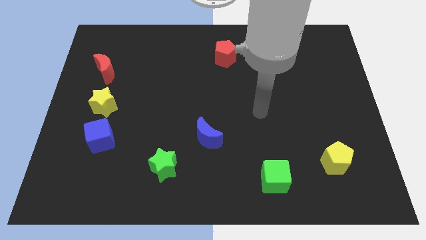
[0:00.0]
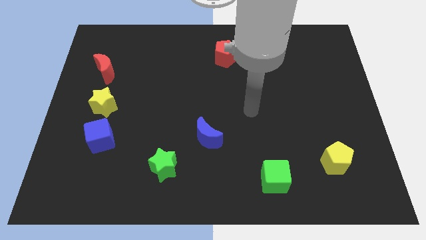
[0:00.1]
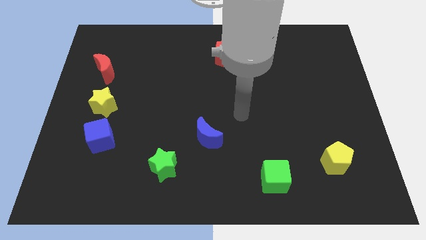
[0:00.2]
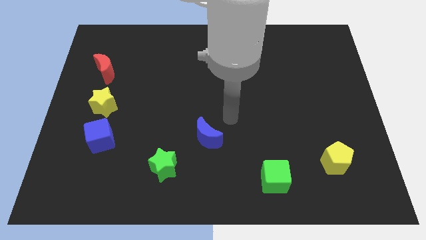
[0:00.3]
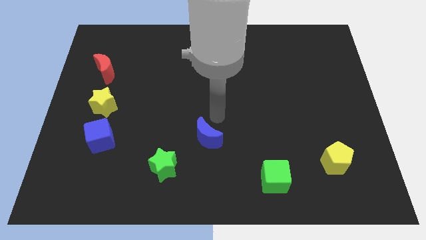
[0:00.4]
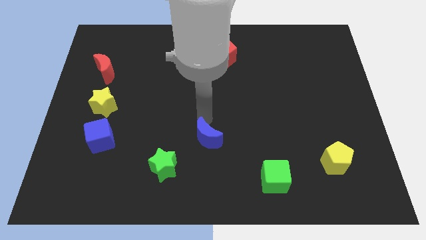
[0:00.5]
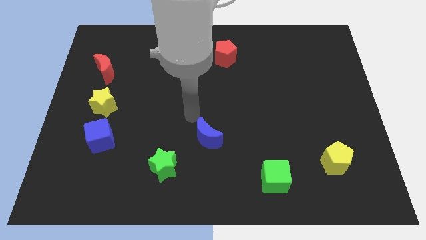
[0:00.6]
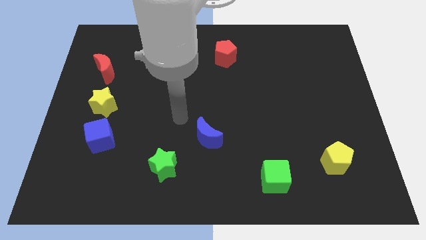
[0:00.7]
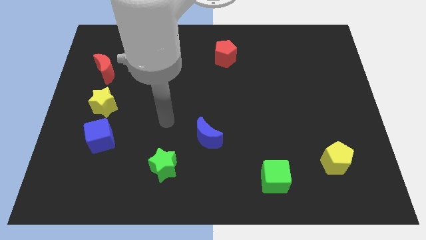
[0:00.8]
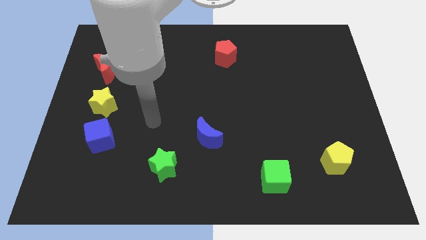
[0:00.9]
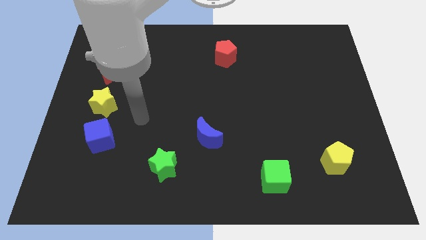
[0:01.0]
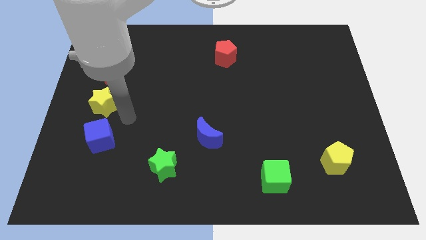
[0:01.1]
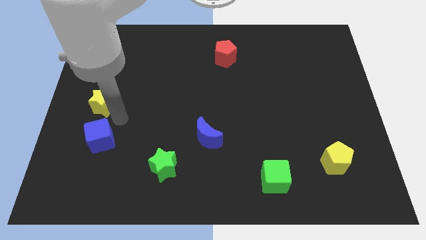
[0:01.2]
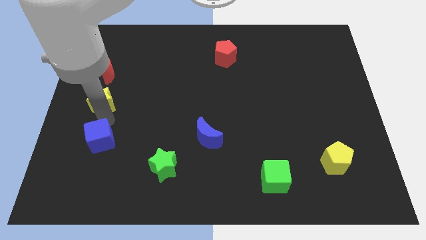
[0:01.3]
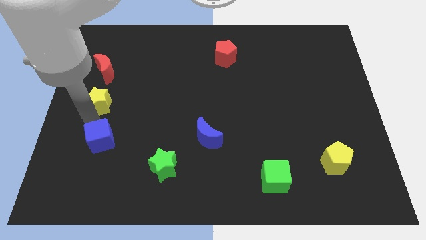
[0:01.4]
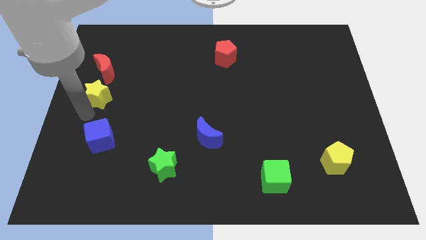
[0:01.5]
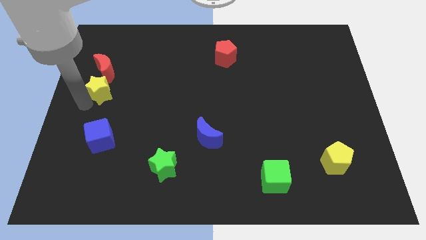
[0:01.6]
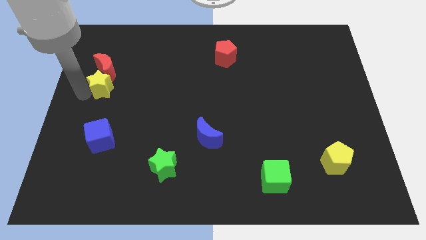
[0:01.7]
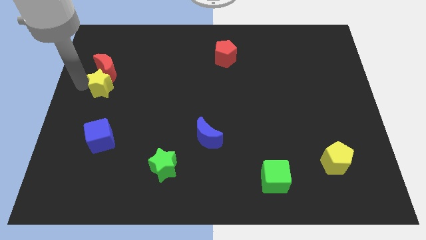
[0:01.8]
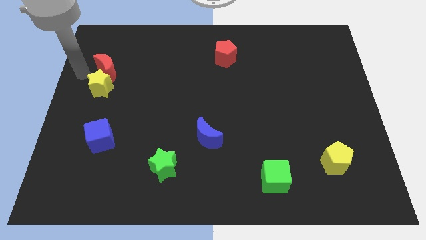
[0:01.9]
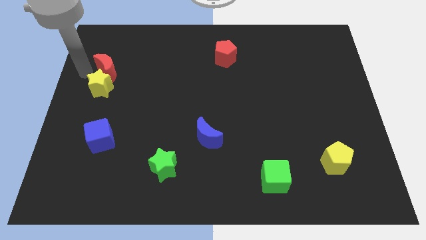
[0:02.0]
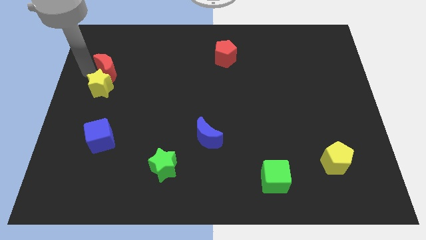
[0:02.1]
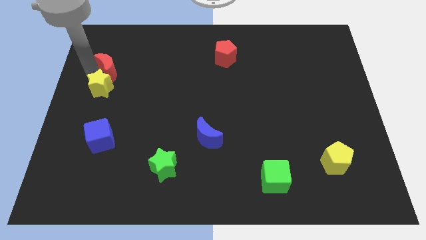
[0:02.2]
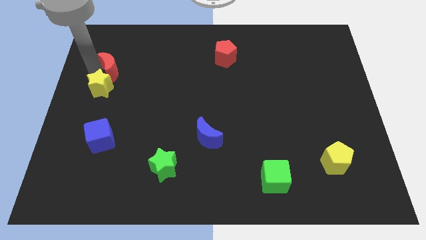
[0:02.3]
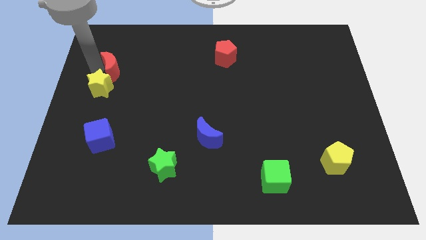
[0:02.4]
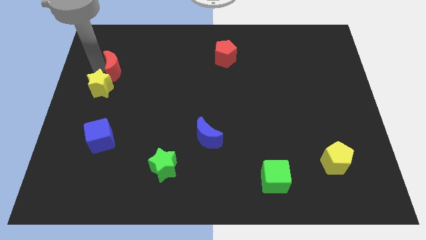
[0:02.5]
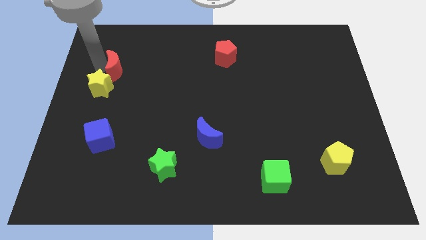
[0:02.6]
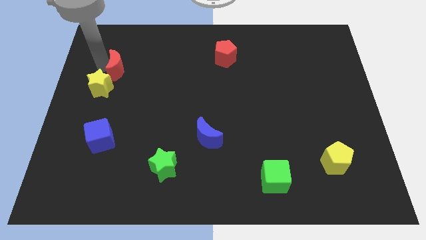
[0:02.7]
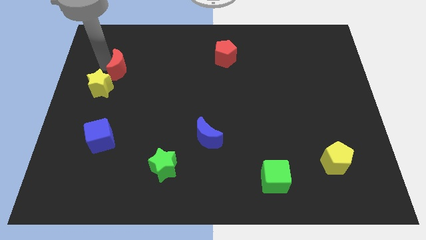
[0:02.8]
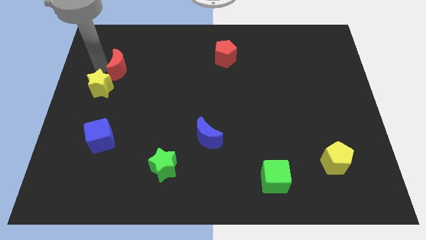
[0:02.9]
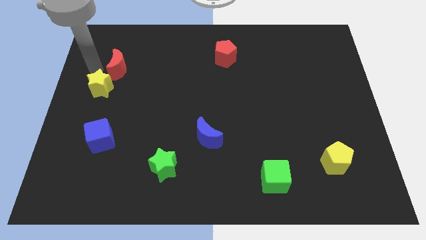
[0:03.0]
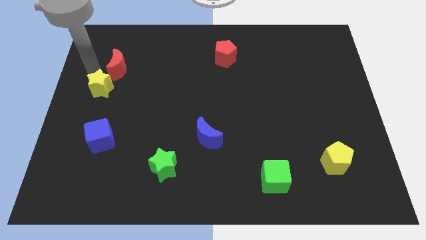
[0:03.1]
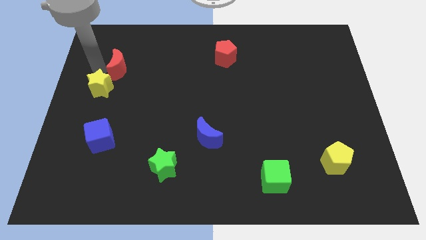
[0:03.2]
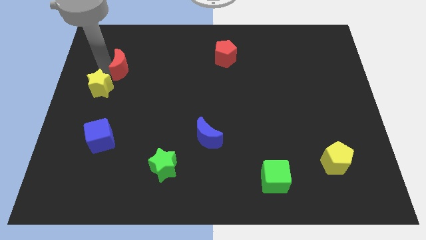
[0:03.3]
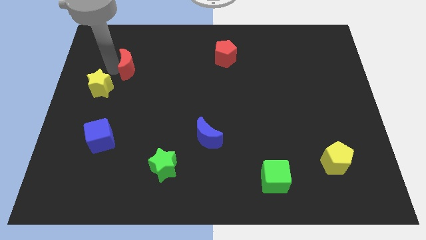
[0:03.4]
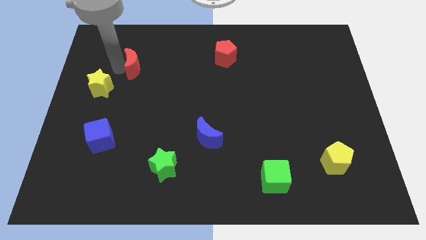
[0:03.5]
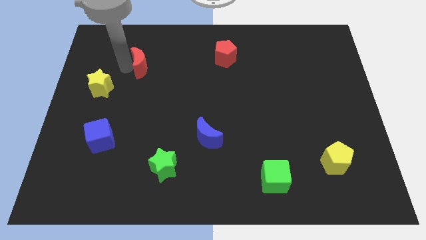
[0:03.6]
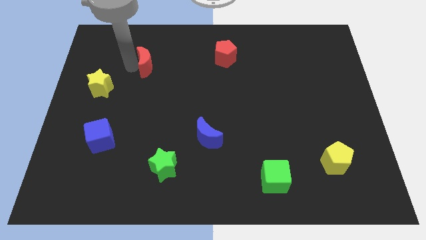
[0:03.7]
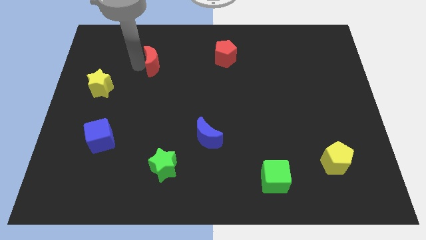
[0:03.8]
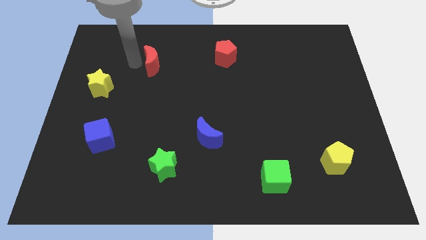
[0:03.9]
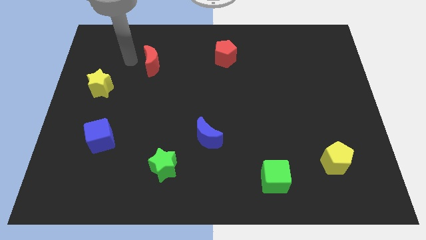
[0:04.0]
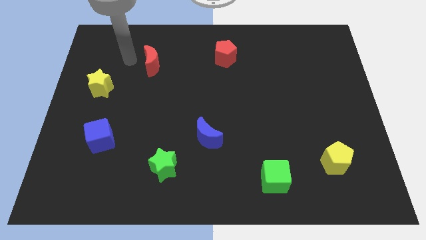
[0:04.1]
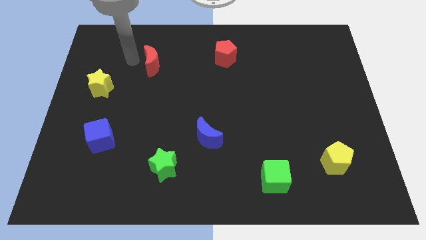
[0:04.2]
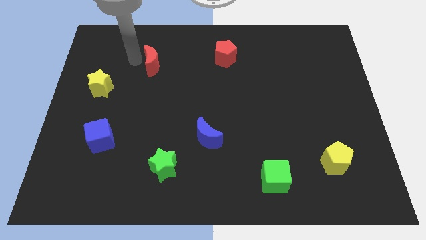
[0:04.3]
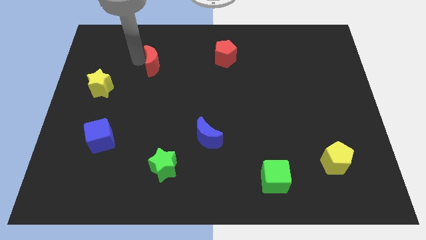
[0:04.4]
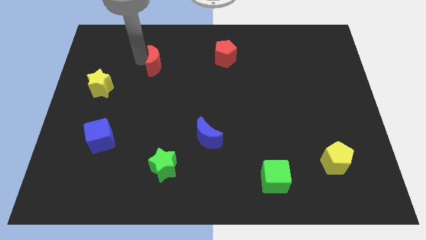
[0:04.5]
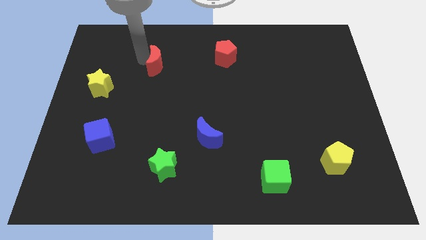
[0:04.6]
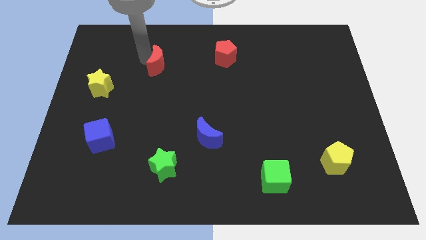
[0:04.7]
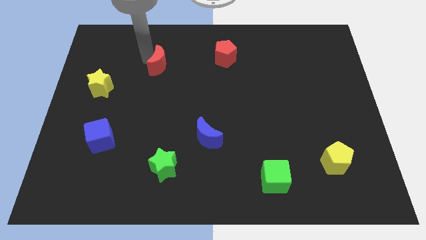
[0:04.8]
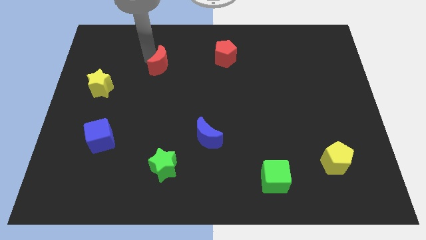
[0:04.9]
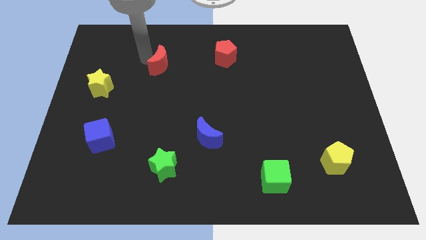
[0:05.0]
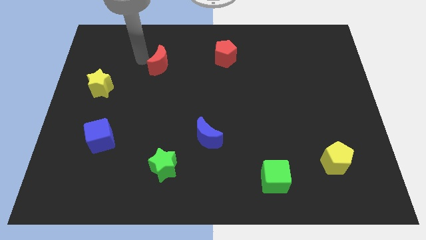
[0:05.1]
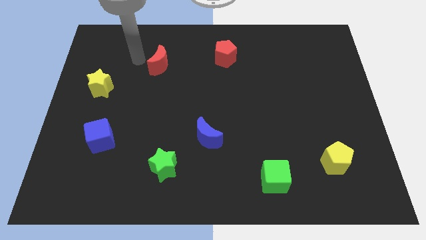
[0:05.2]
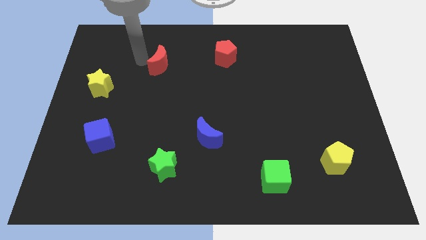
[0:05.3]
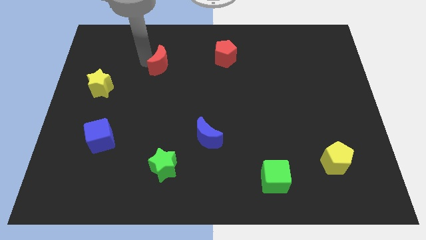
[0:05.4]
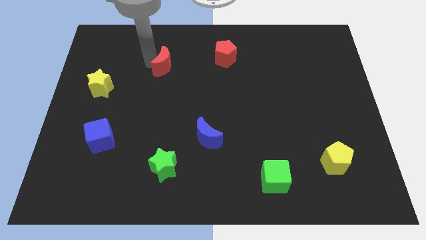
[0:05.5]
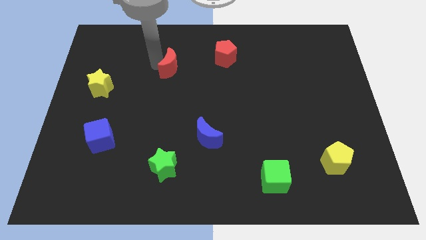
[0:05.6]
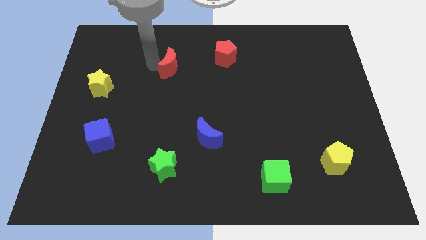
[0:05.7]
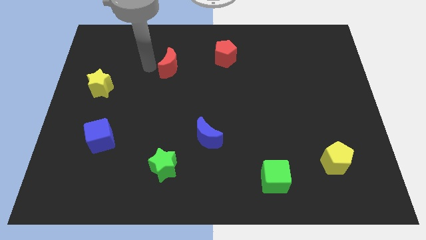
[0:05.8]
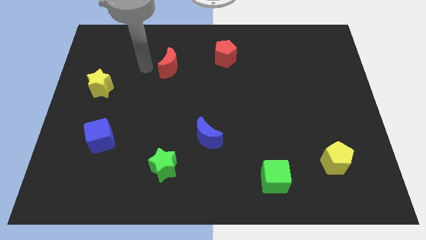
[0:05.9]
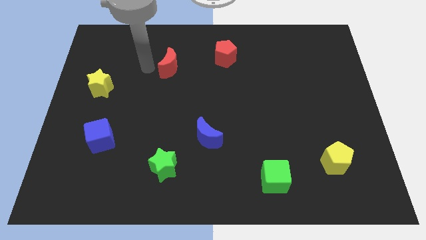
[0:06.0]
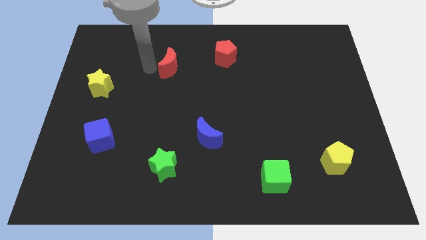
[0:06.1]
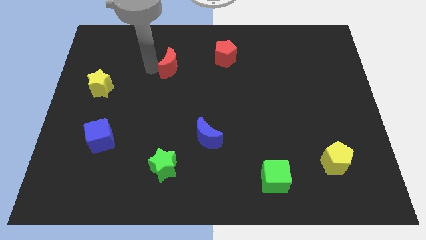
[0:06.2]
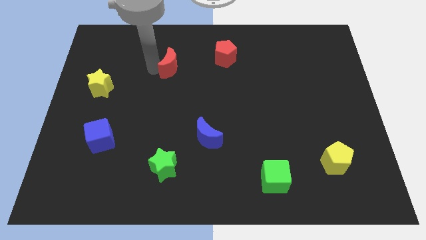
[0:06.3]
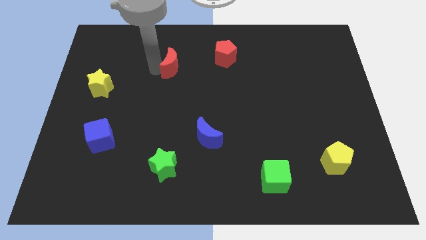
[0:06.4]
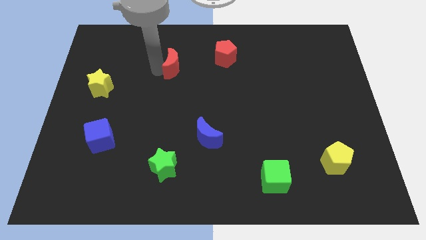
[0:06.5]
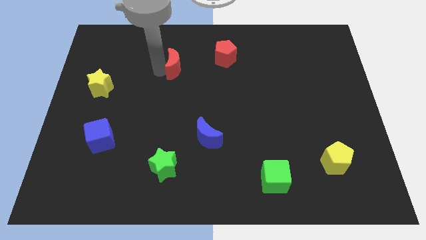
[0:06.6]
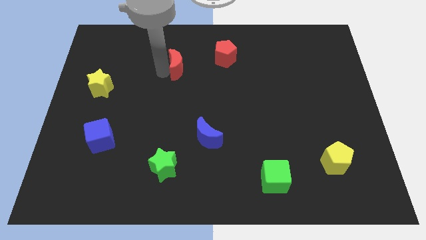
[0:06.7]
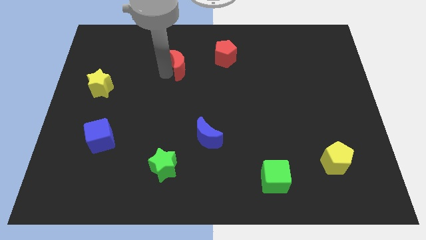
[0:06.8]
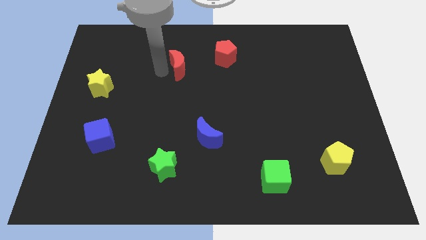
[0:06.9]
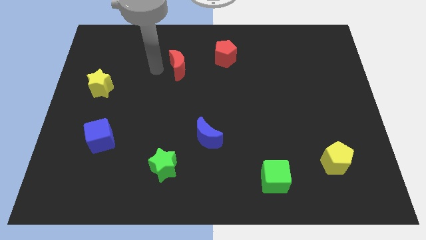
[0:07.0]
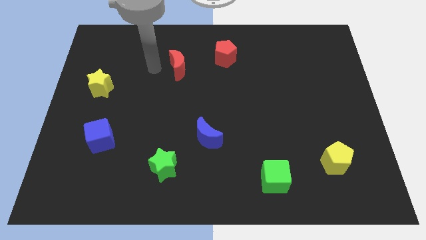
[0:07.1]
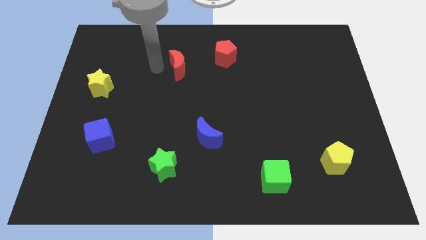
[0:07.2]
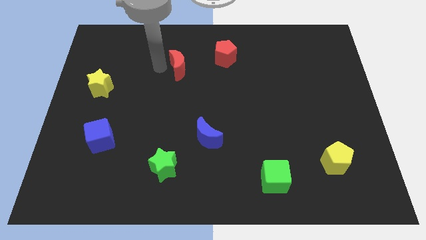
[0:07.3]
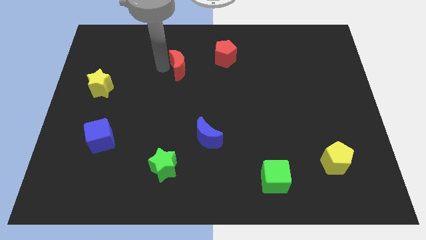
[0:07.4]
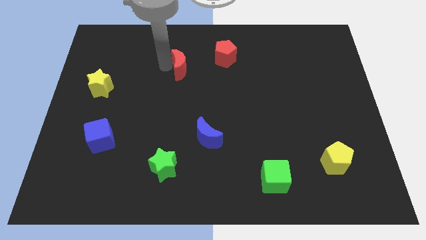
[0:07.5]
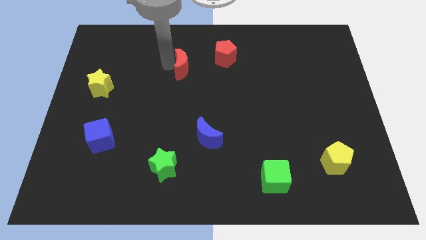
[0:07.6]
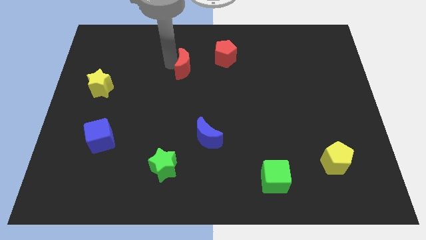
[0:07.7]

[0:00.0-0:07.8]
move the red moon to the right

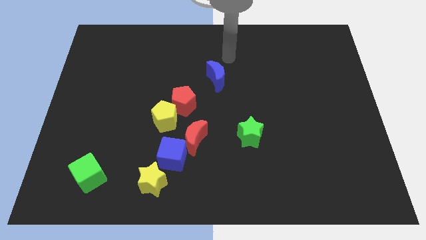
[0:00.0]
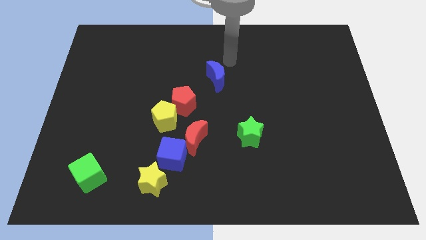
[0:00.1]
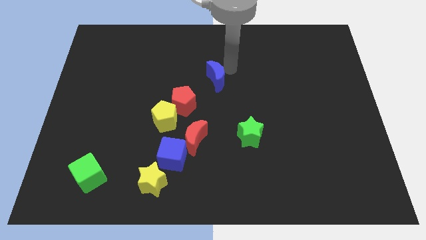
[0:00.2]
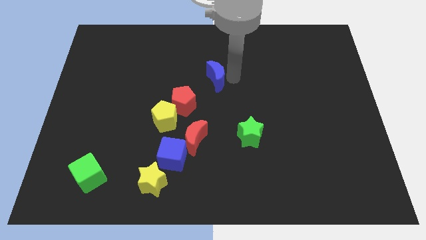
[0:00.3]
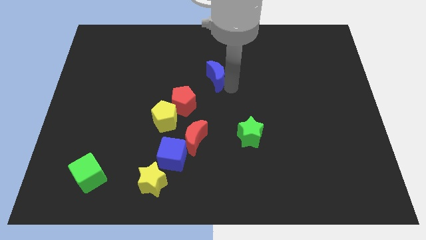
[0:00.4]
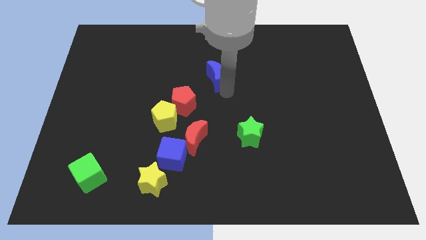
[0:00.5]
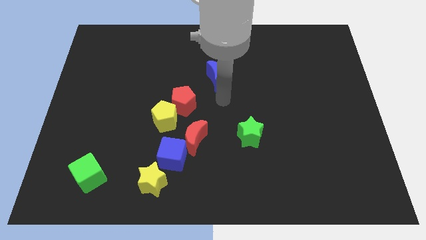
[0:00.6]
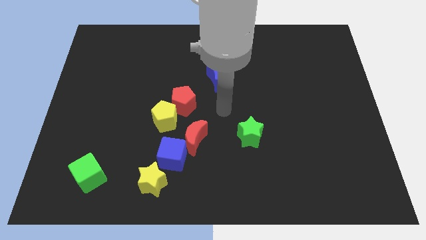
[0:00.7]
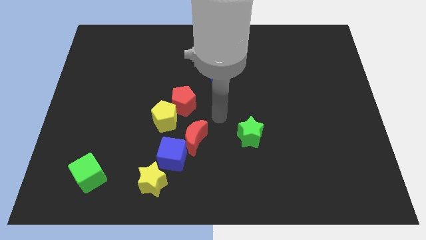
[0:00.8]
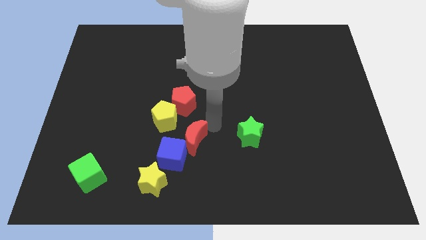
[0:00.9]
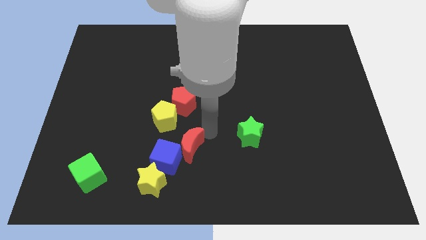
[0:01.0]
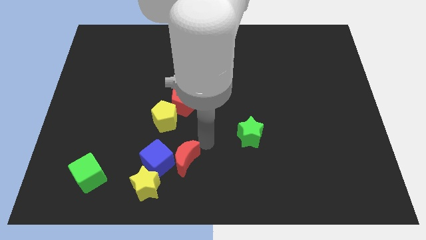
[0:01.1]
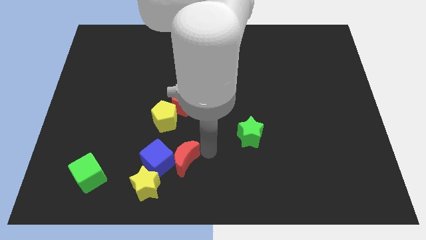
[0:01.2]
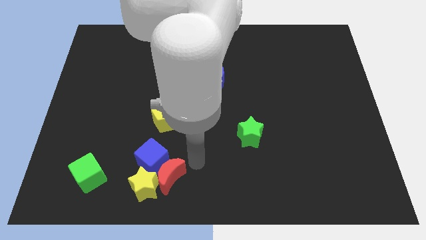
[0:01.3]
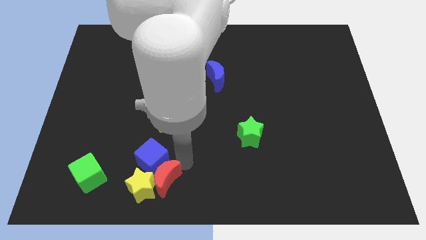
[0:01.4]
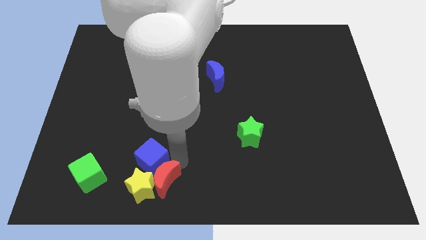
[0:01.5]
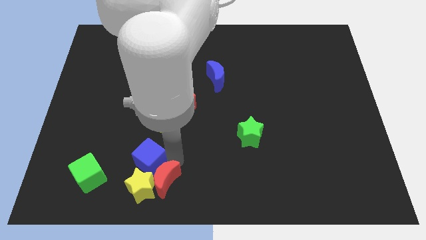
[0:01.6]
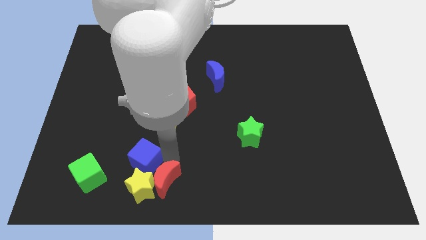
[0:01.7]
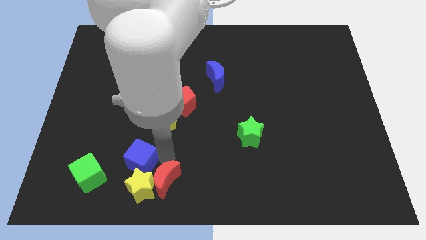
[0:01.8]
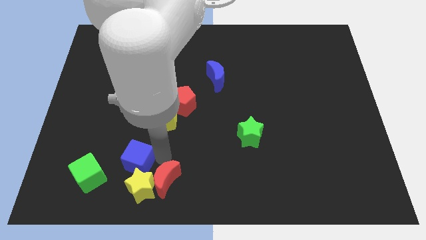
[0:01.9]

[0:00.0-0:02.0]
slide the blue cube a little bit left
